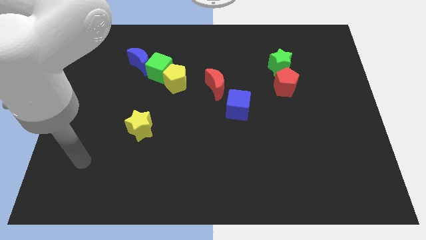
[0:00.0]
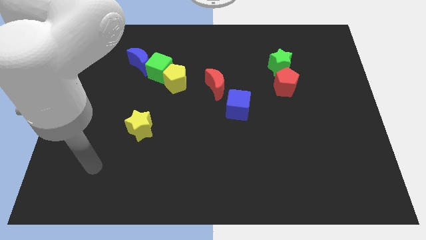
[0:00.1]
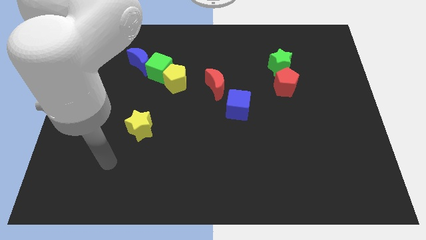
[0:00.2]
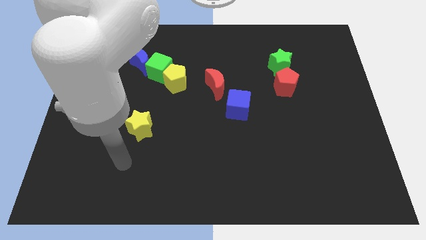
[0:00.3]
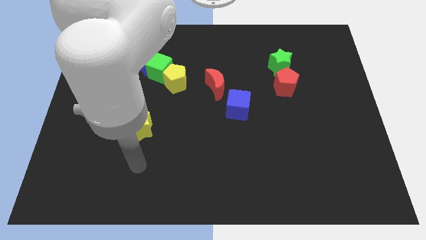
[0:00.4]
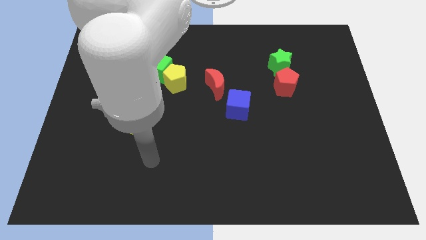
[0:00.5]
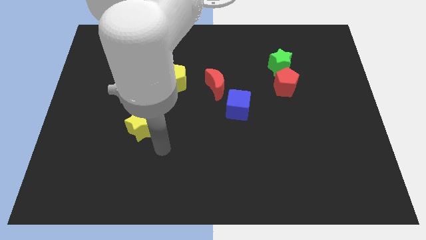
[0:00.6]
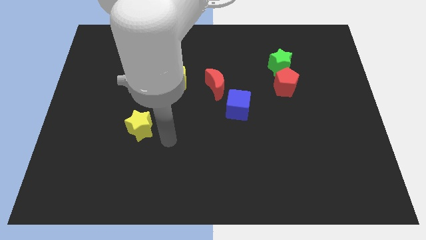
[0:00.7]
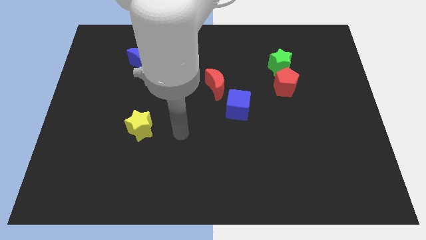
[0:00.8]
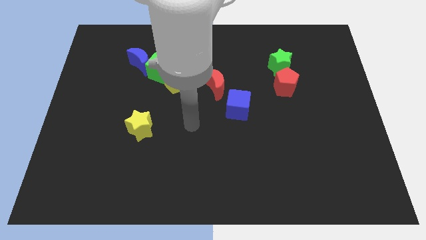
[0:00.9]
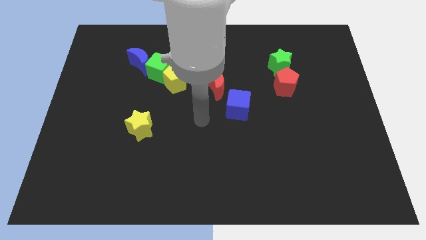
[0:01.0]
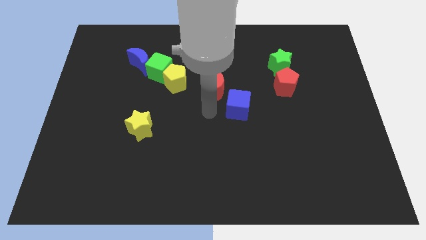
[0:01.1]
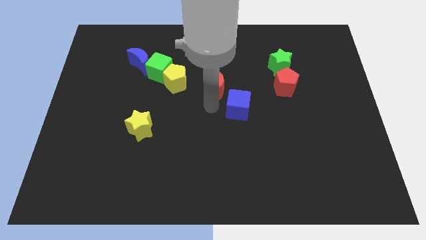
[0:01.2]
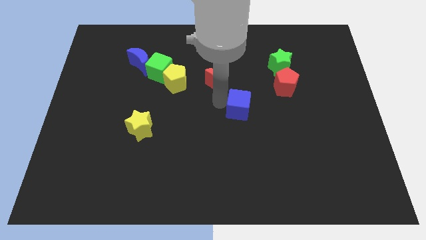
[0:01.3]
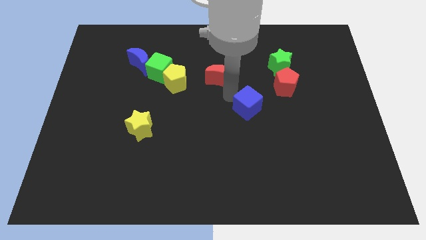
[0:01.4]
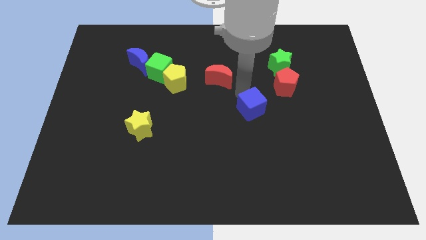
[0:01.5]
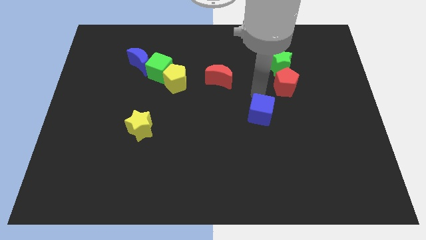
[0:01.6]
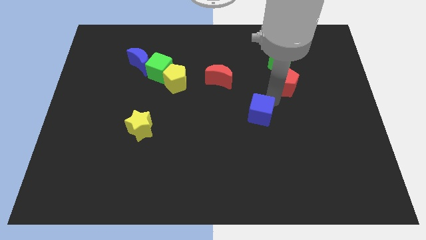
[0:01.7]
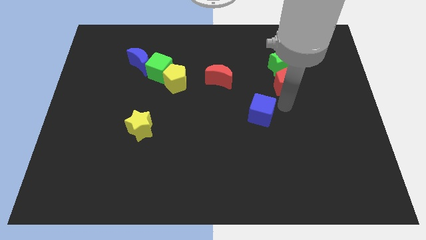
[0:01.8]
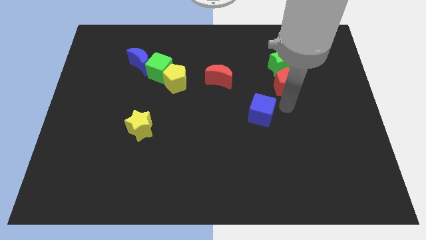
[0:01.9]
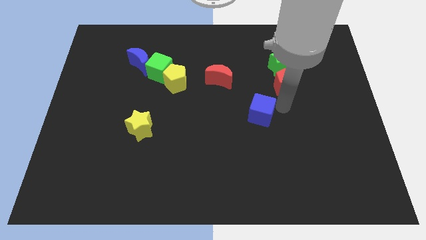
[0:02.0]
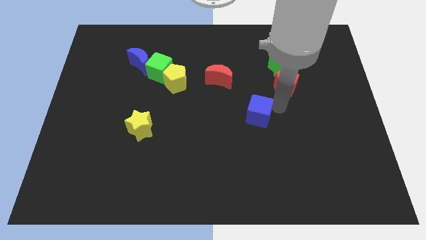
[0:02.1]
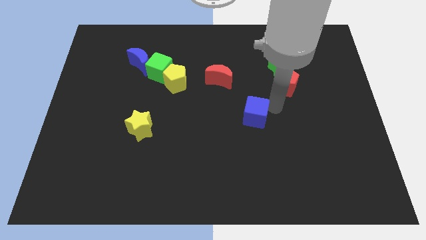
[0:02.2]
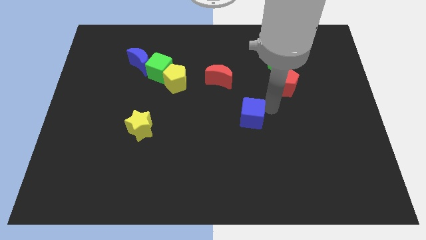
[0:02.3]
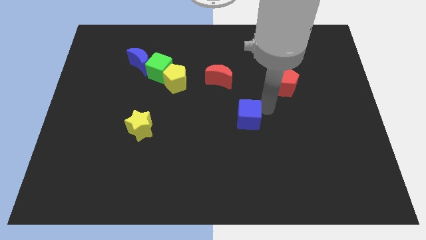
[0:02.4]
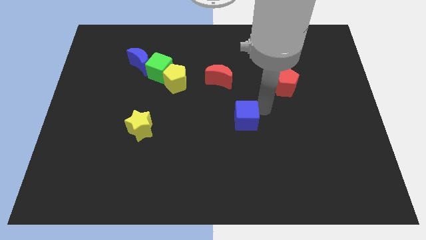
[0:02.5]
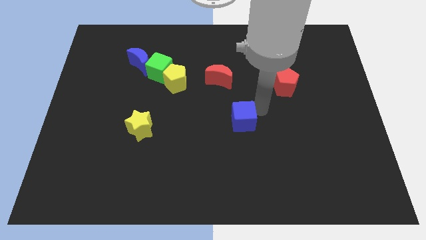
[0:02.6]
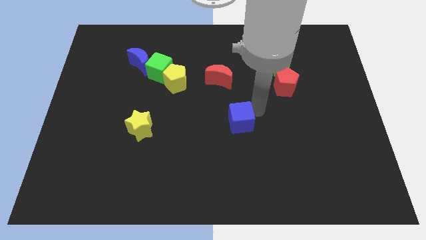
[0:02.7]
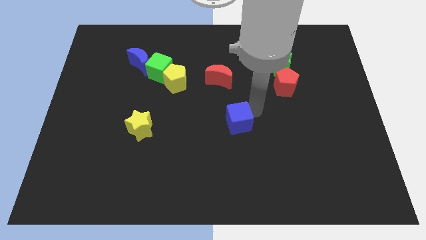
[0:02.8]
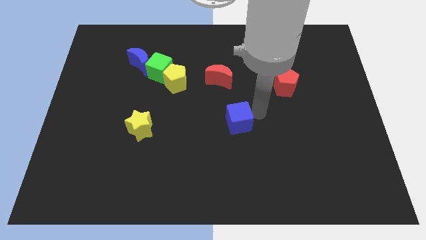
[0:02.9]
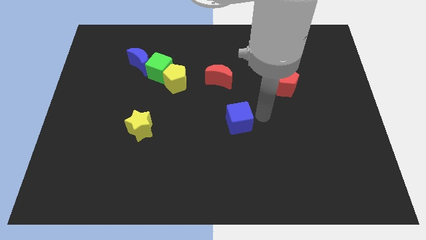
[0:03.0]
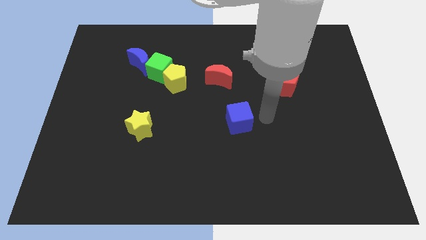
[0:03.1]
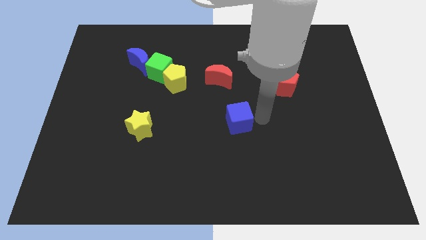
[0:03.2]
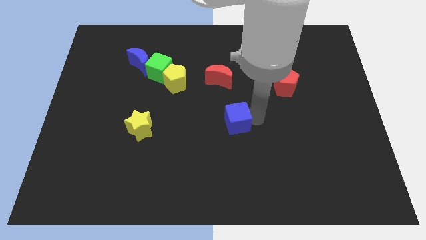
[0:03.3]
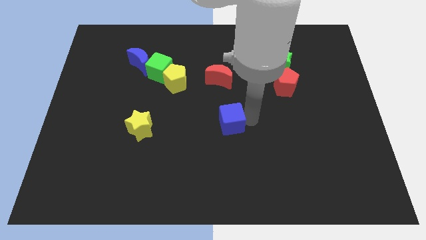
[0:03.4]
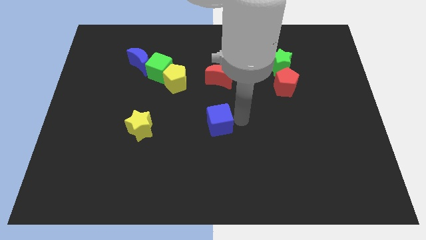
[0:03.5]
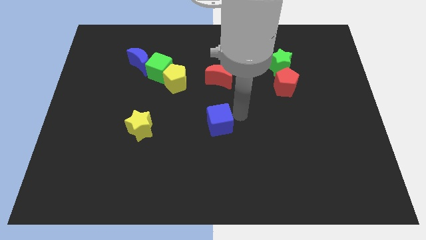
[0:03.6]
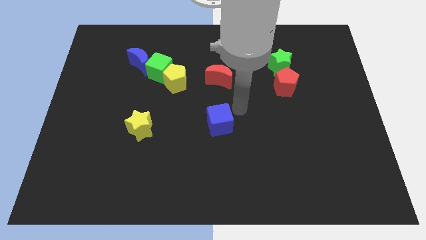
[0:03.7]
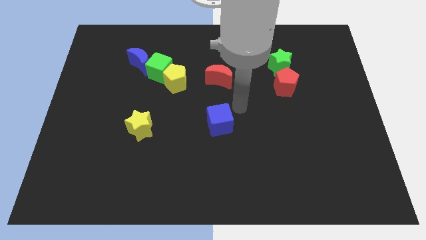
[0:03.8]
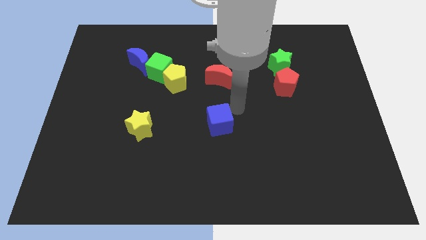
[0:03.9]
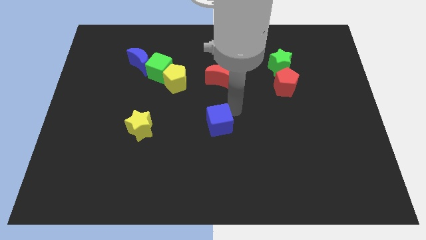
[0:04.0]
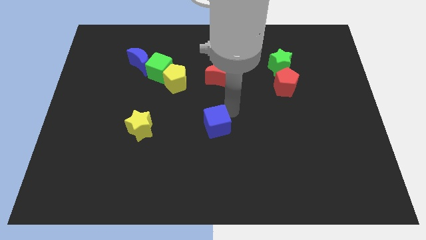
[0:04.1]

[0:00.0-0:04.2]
push the blue cube downwards and left diagonally a bit

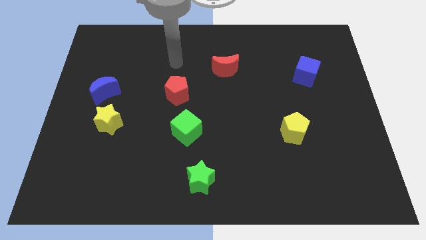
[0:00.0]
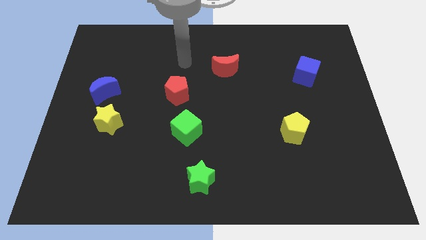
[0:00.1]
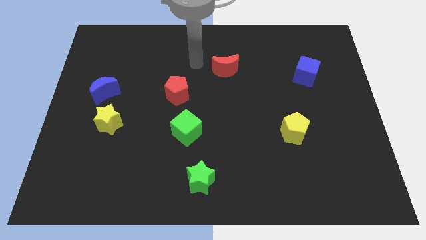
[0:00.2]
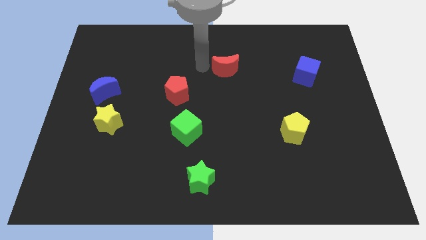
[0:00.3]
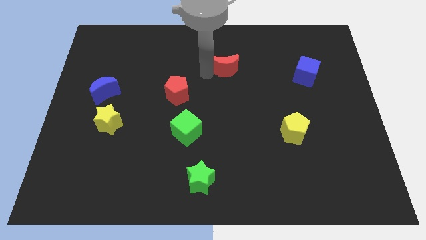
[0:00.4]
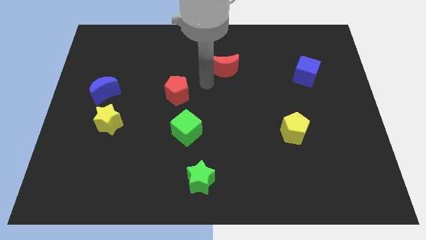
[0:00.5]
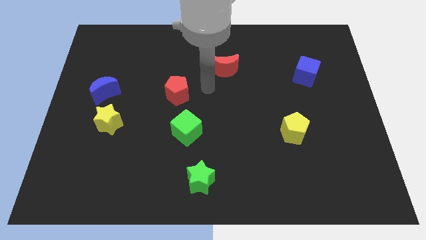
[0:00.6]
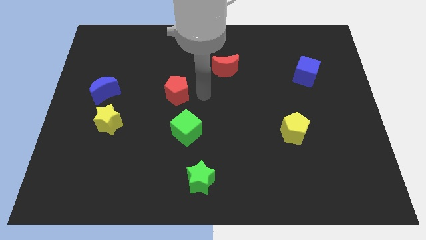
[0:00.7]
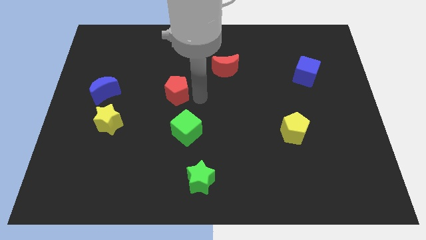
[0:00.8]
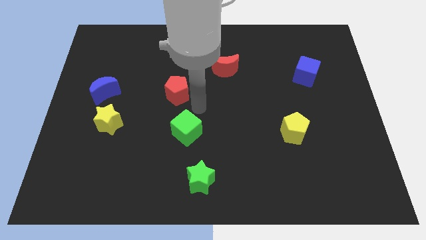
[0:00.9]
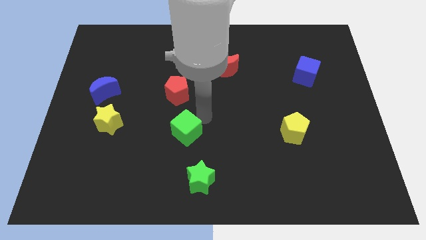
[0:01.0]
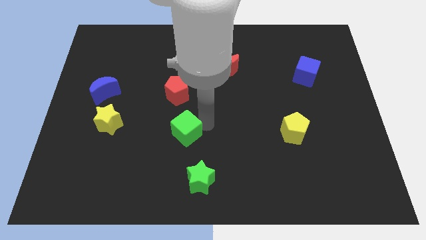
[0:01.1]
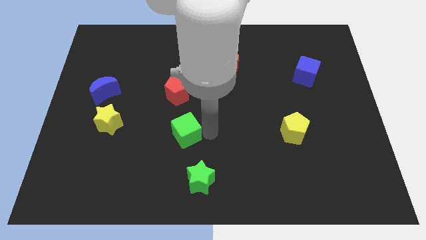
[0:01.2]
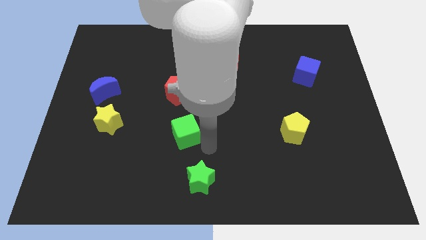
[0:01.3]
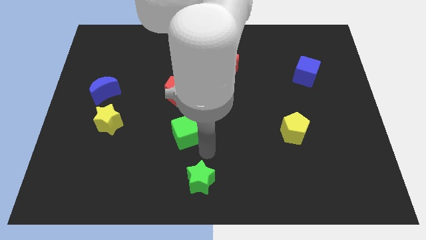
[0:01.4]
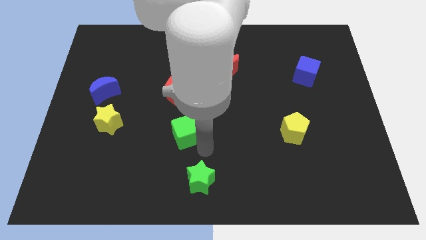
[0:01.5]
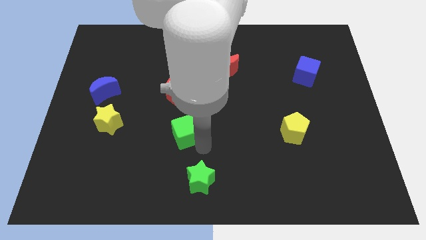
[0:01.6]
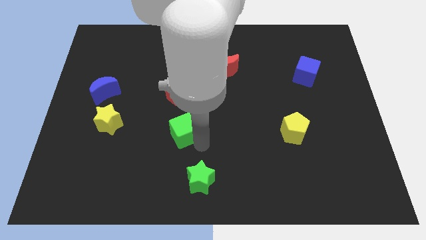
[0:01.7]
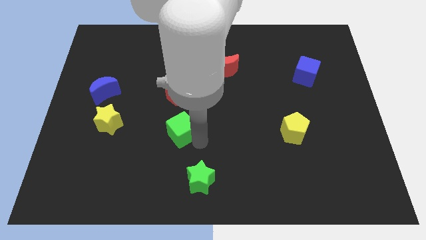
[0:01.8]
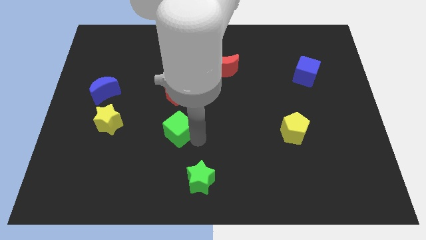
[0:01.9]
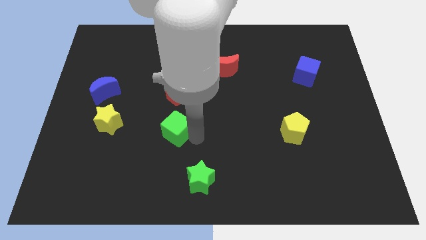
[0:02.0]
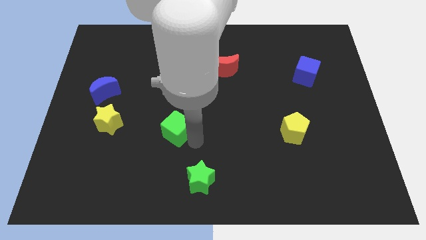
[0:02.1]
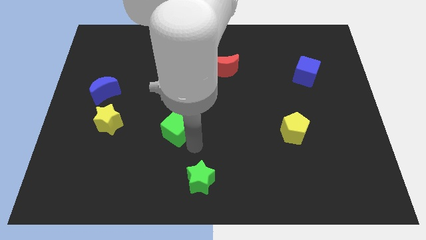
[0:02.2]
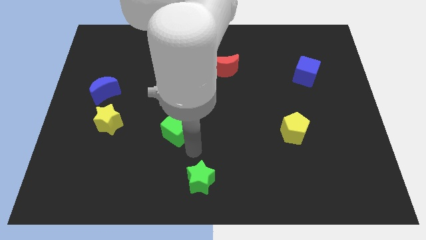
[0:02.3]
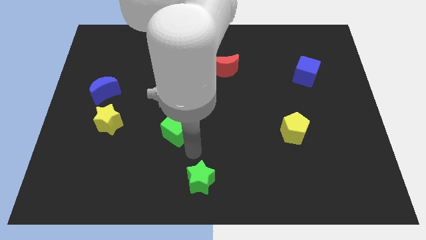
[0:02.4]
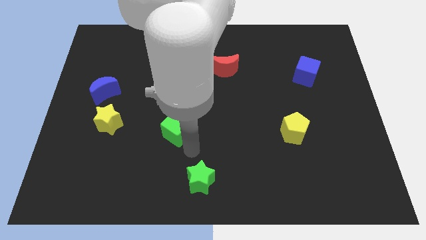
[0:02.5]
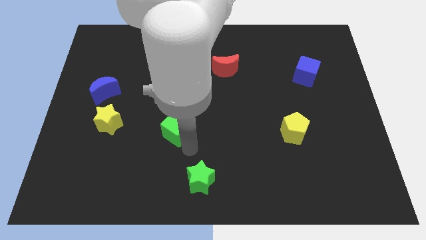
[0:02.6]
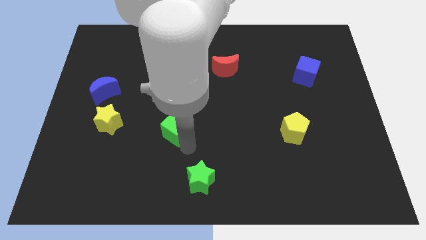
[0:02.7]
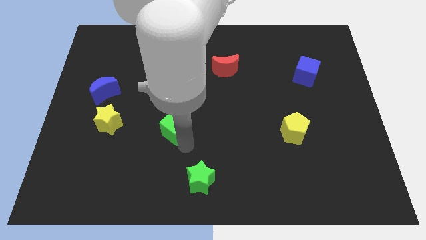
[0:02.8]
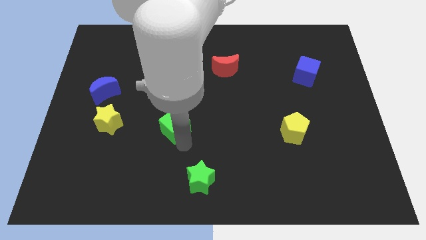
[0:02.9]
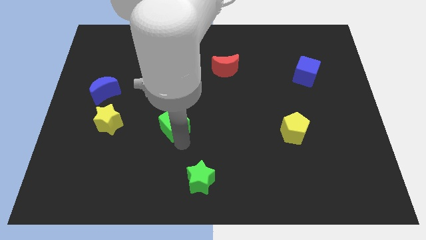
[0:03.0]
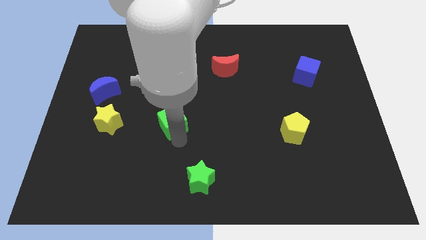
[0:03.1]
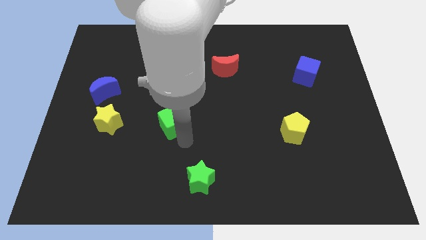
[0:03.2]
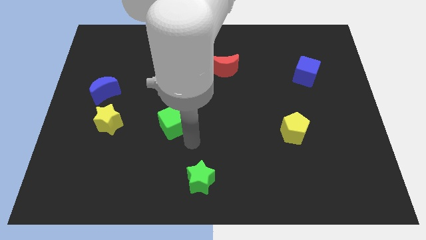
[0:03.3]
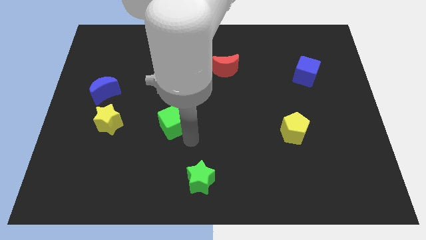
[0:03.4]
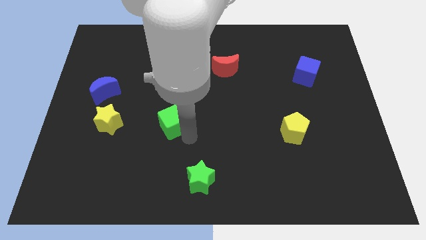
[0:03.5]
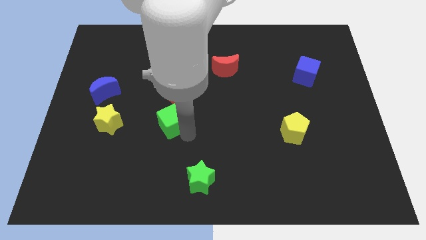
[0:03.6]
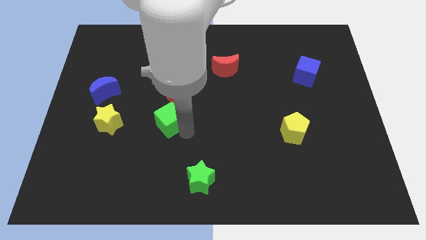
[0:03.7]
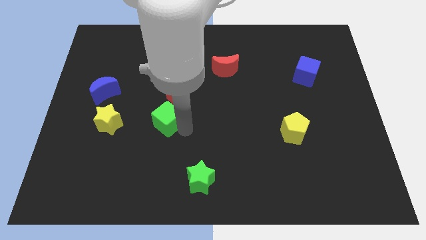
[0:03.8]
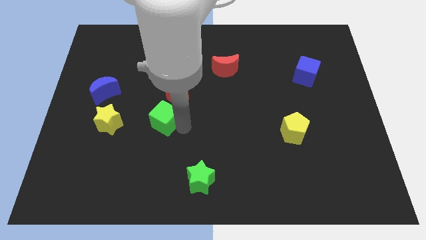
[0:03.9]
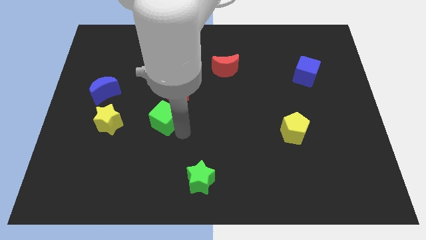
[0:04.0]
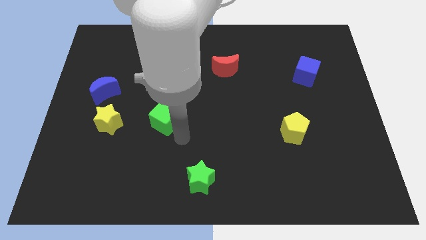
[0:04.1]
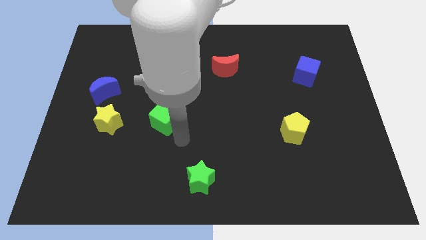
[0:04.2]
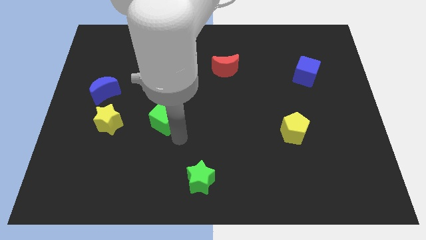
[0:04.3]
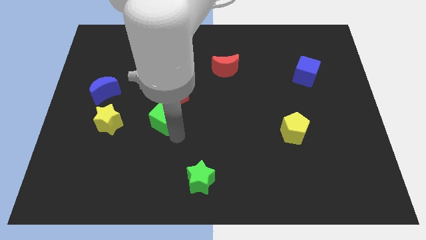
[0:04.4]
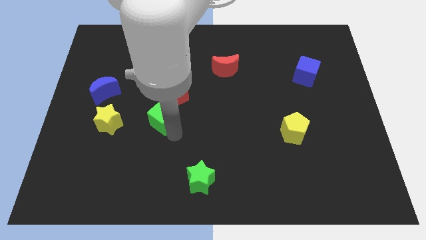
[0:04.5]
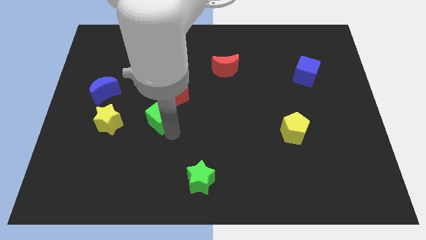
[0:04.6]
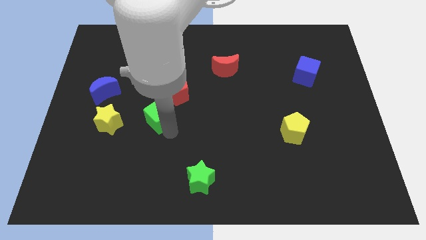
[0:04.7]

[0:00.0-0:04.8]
push the green cube upwards and then left slightly
